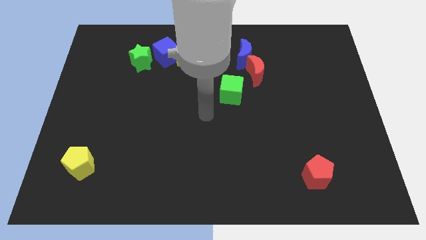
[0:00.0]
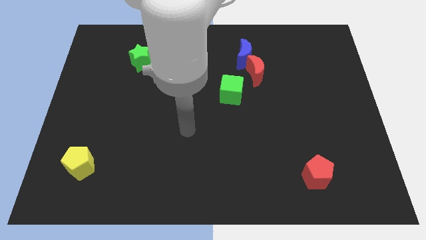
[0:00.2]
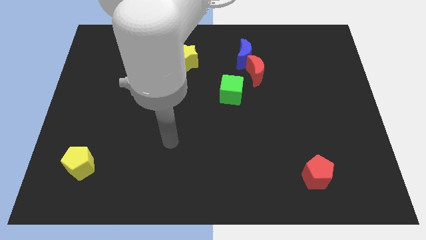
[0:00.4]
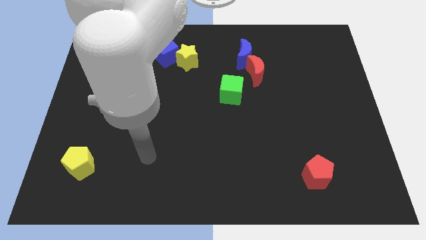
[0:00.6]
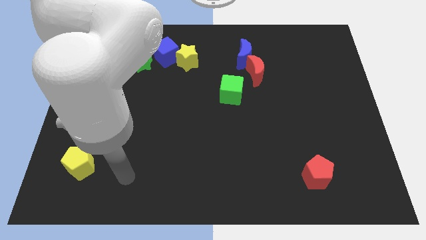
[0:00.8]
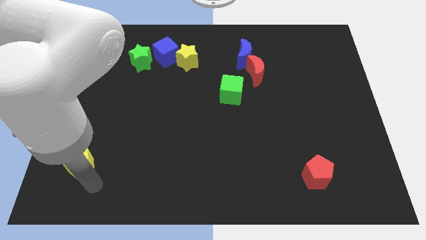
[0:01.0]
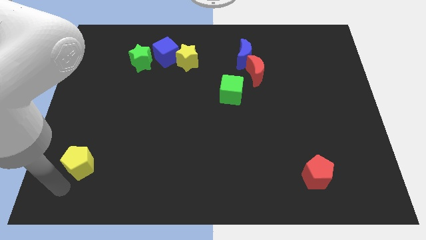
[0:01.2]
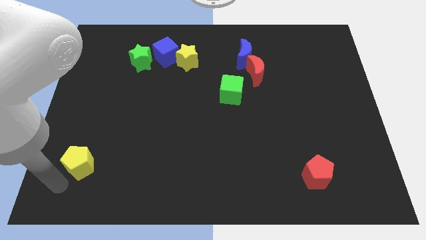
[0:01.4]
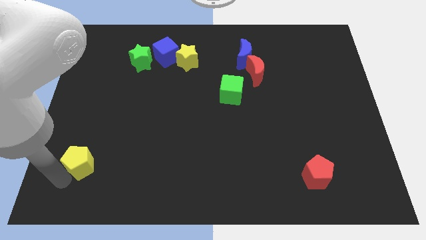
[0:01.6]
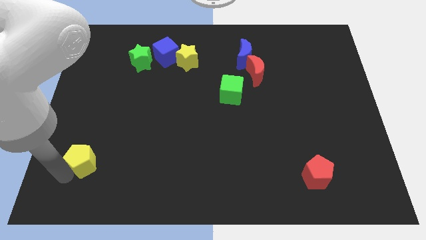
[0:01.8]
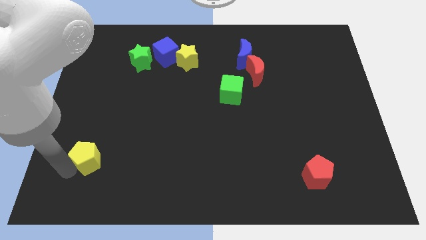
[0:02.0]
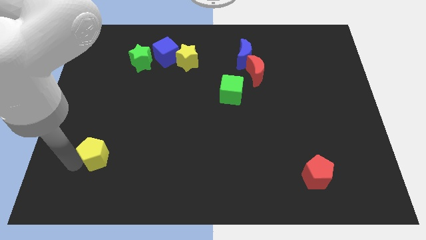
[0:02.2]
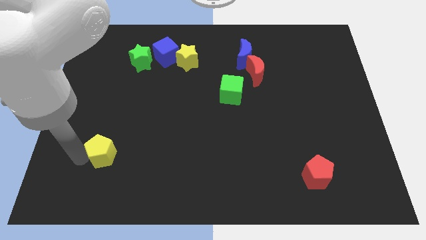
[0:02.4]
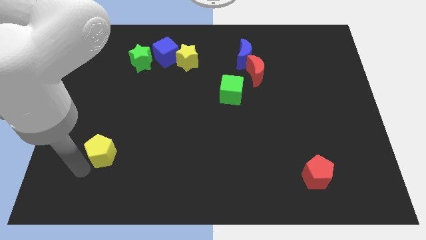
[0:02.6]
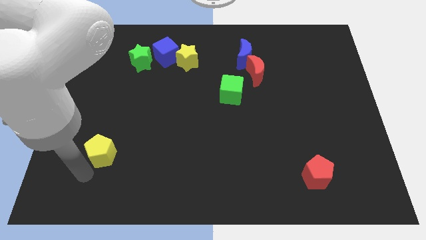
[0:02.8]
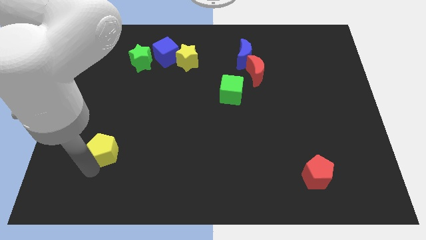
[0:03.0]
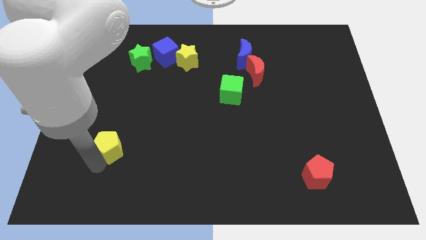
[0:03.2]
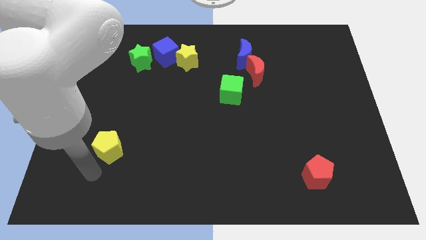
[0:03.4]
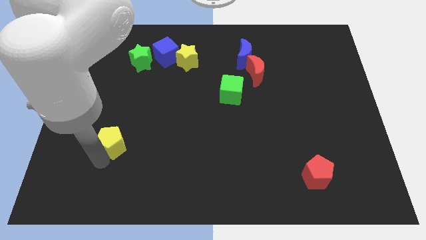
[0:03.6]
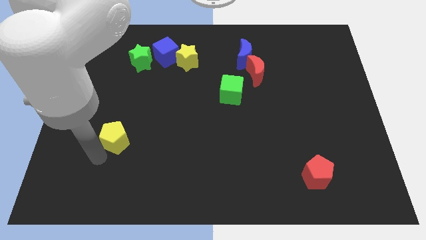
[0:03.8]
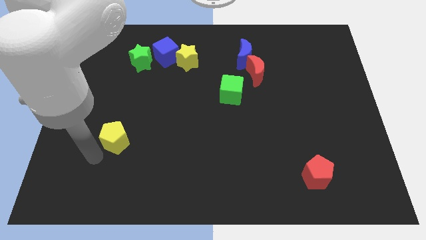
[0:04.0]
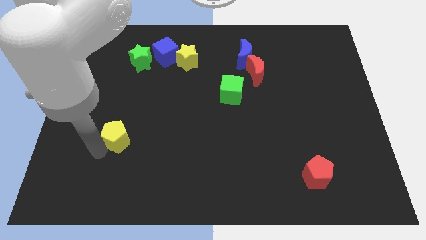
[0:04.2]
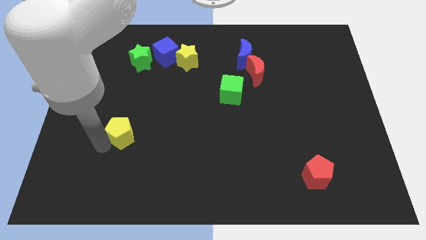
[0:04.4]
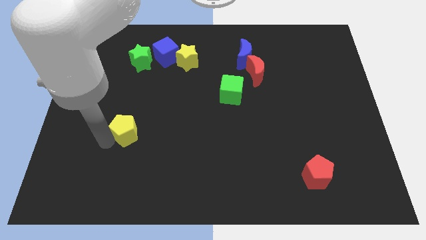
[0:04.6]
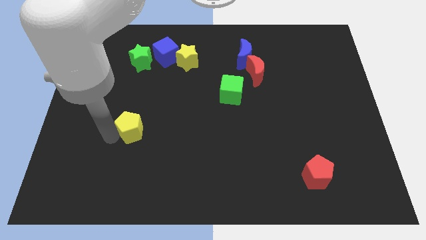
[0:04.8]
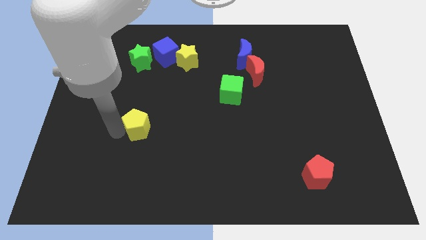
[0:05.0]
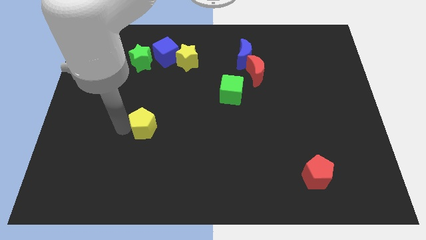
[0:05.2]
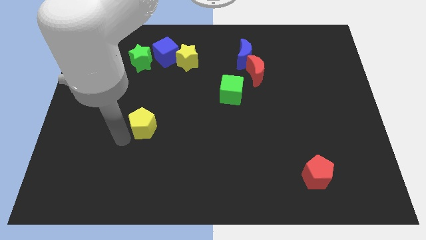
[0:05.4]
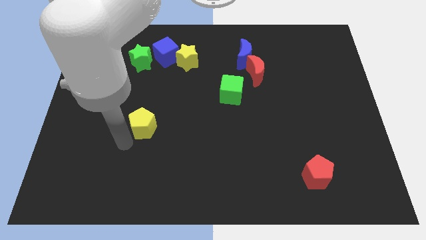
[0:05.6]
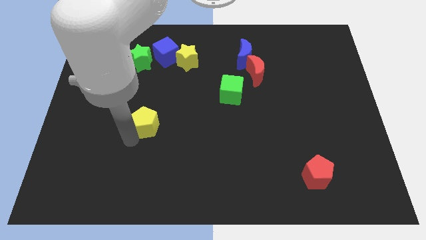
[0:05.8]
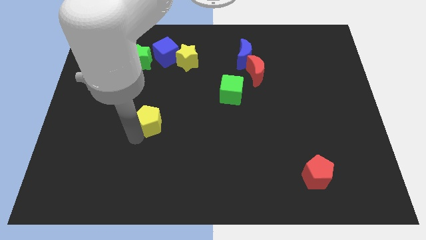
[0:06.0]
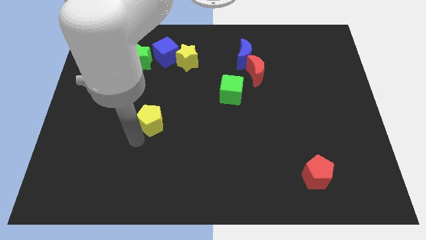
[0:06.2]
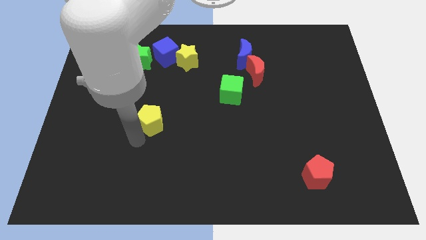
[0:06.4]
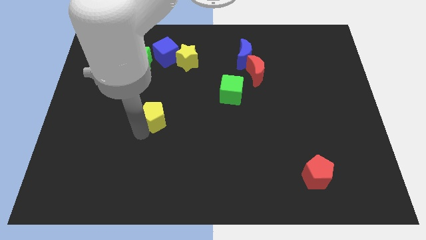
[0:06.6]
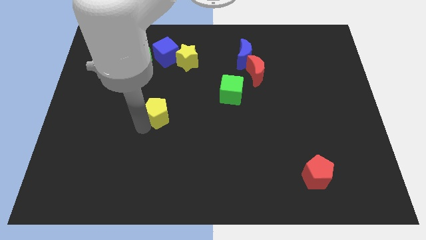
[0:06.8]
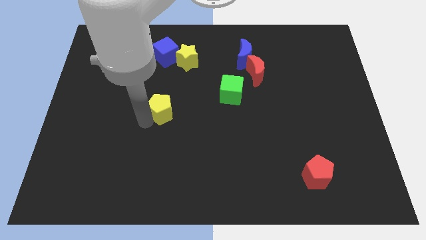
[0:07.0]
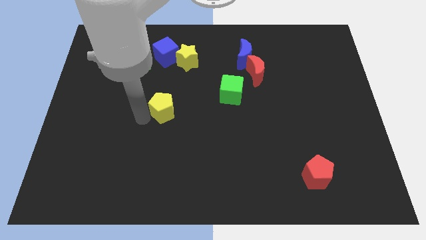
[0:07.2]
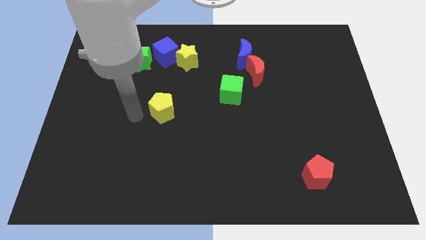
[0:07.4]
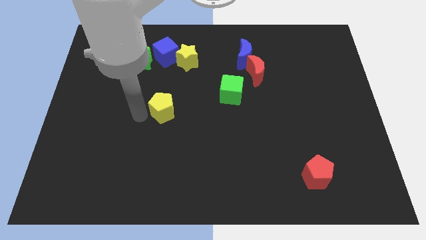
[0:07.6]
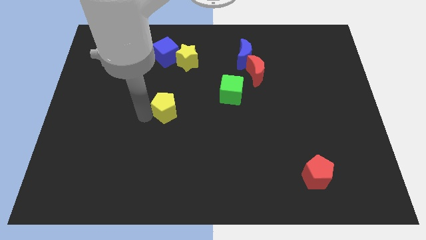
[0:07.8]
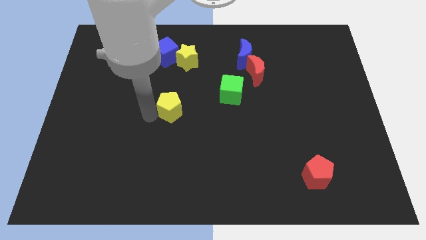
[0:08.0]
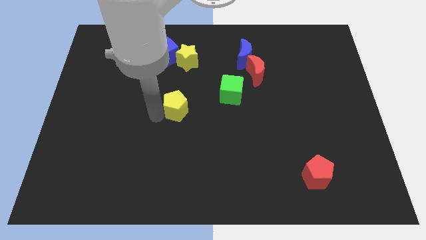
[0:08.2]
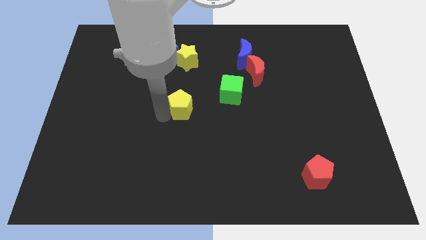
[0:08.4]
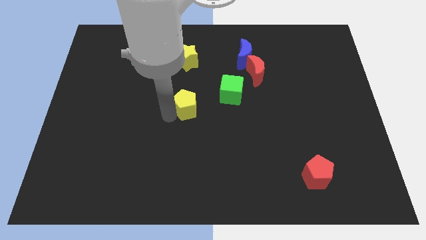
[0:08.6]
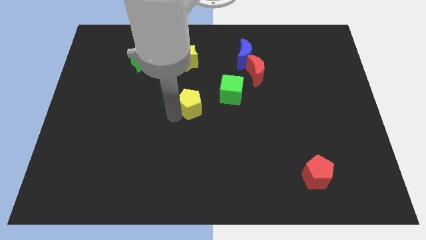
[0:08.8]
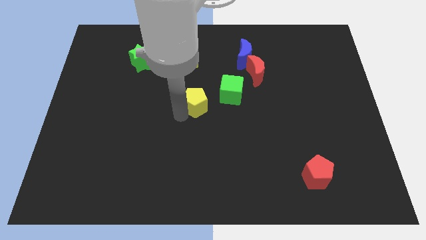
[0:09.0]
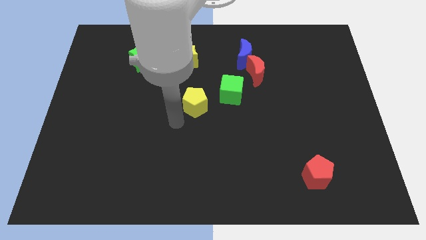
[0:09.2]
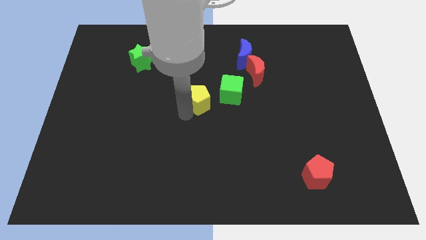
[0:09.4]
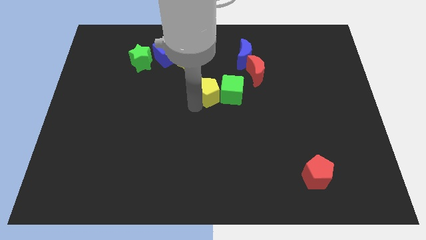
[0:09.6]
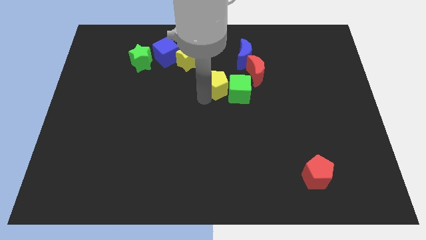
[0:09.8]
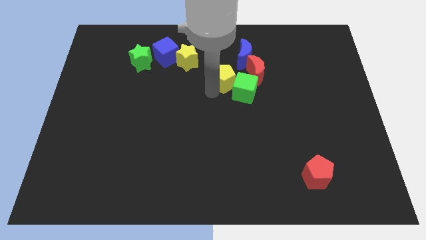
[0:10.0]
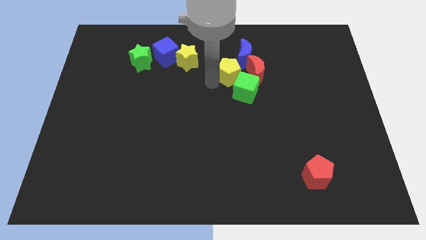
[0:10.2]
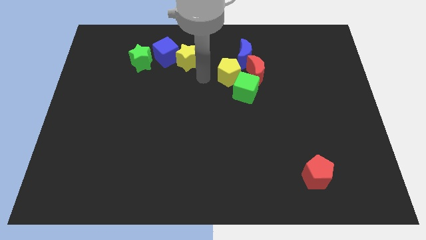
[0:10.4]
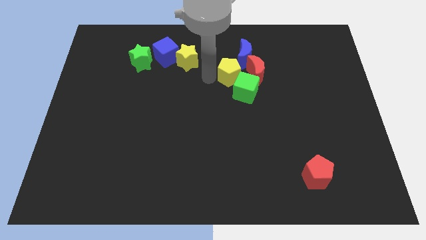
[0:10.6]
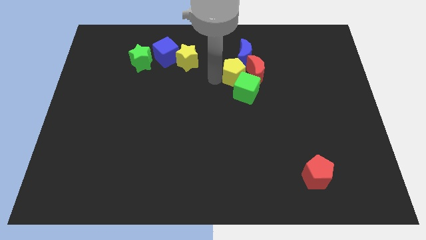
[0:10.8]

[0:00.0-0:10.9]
move the yellow pentagon to the red moon

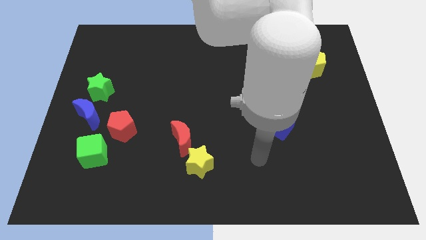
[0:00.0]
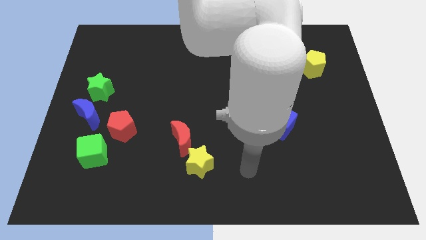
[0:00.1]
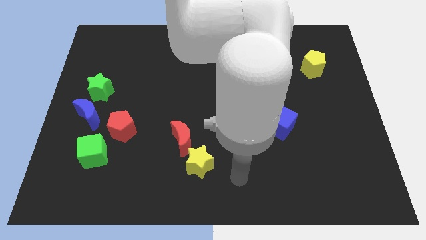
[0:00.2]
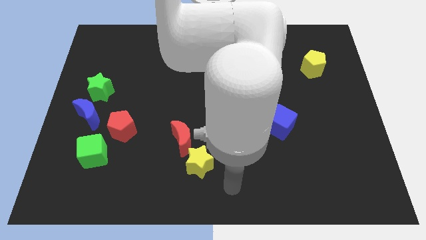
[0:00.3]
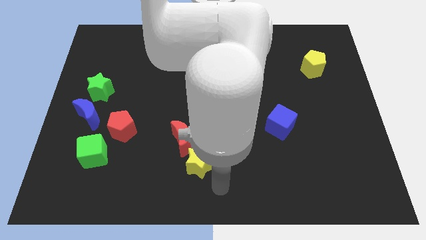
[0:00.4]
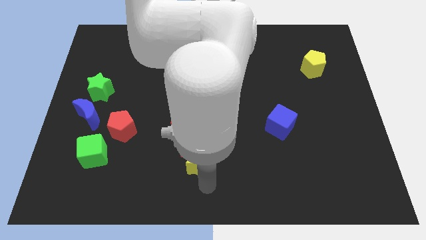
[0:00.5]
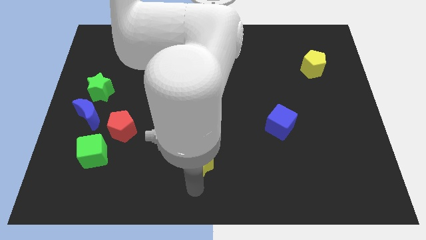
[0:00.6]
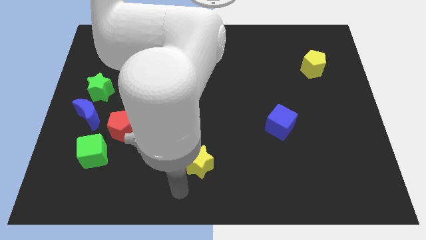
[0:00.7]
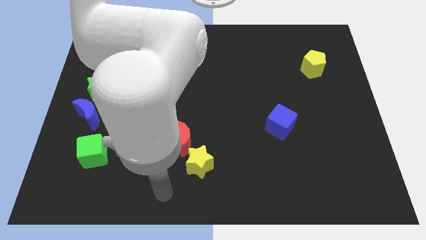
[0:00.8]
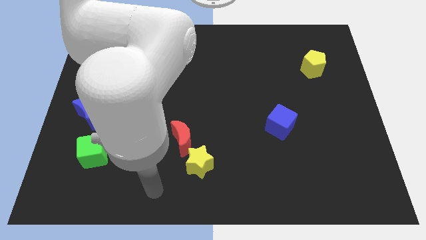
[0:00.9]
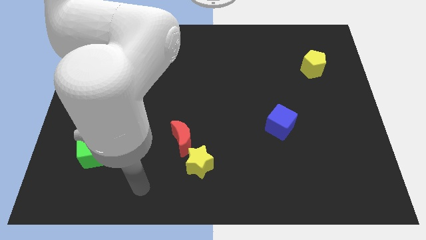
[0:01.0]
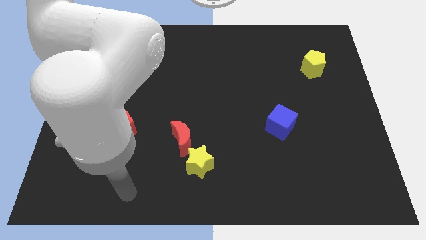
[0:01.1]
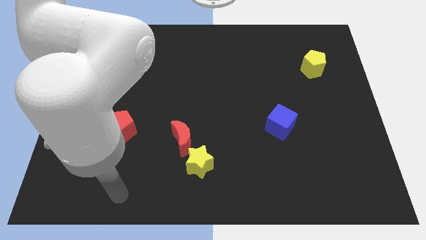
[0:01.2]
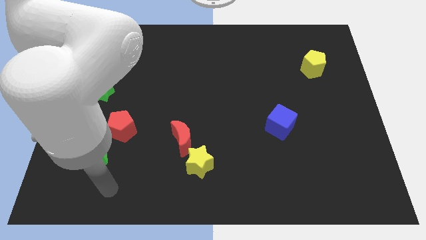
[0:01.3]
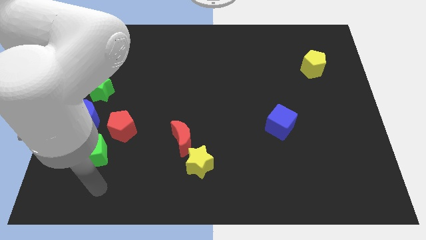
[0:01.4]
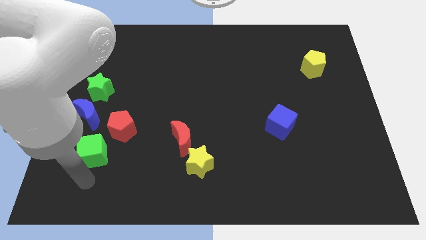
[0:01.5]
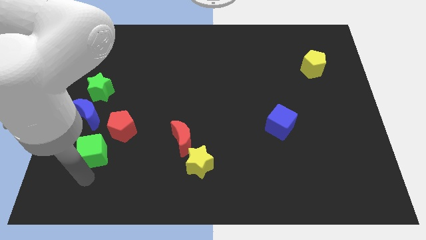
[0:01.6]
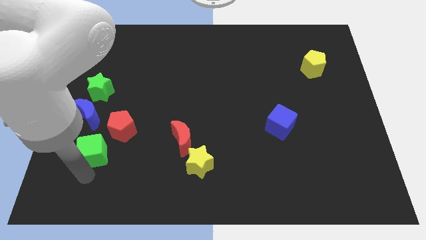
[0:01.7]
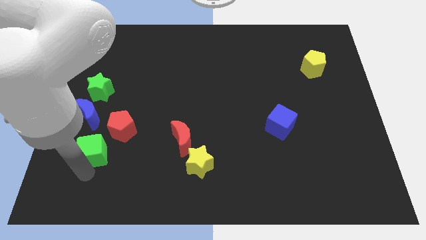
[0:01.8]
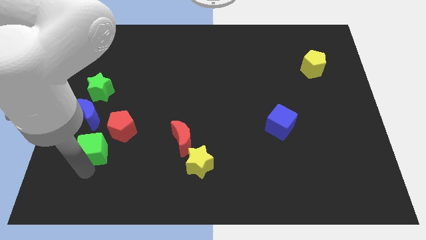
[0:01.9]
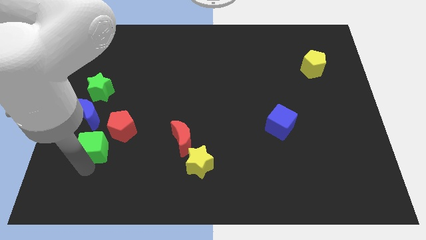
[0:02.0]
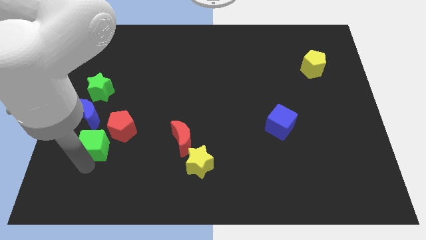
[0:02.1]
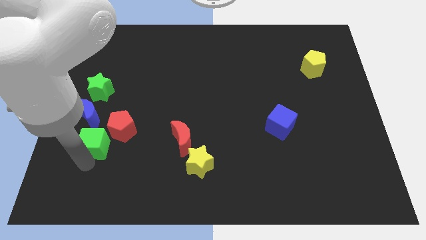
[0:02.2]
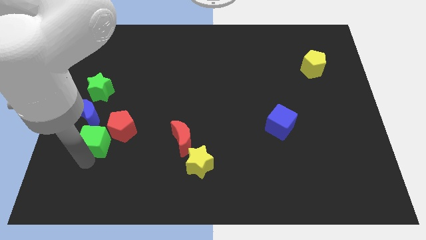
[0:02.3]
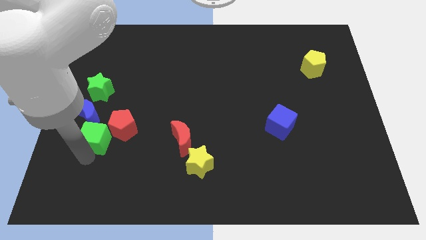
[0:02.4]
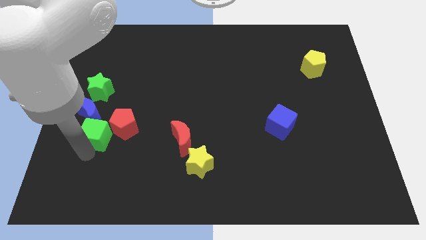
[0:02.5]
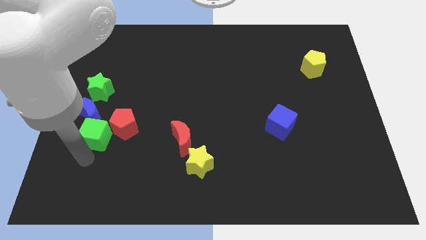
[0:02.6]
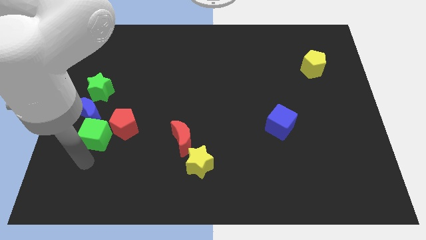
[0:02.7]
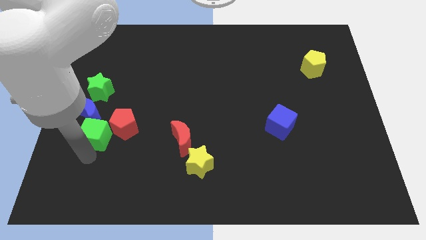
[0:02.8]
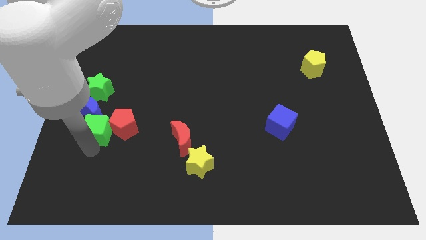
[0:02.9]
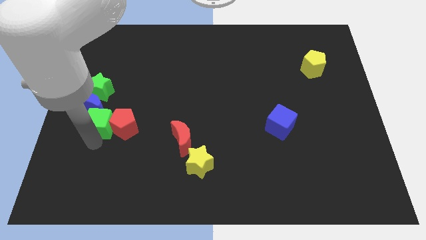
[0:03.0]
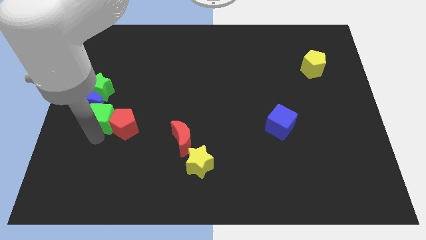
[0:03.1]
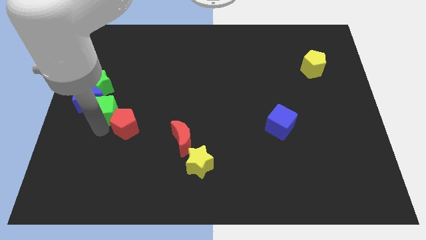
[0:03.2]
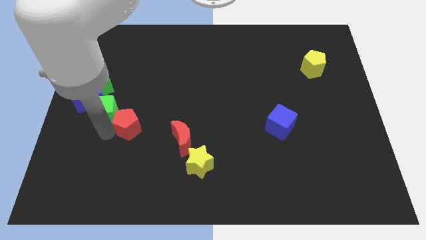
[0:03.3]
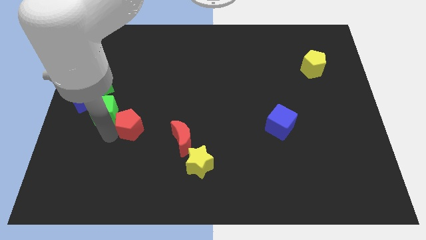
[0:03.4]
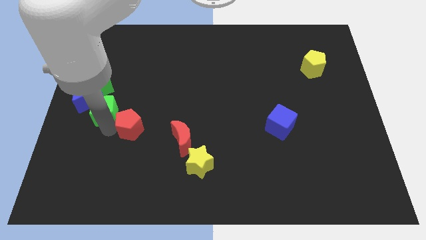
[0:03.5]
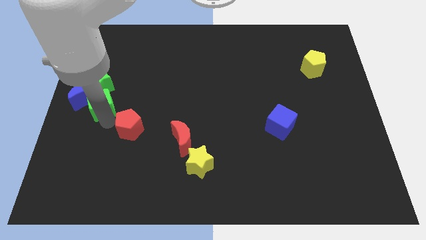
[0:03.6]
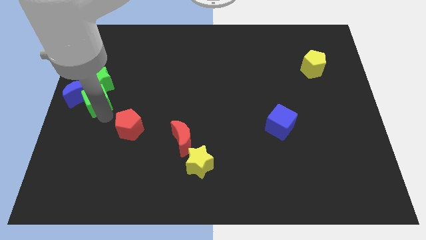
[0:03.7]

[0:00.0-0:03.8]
push the green cube next to the green star
